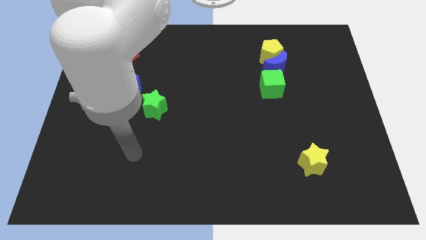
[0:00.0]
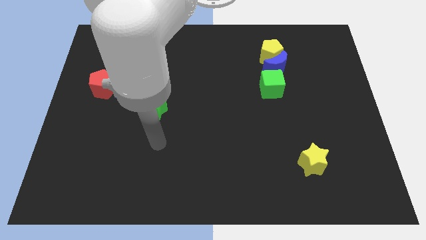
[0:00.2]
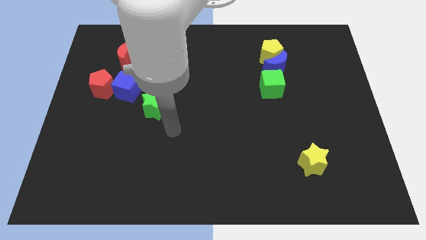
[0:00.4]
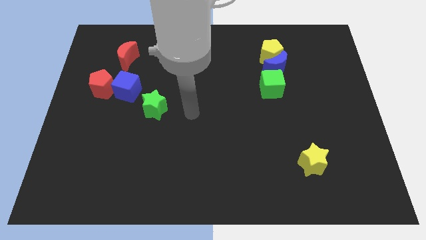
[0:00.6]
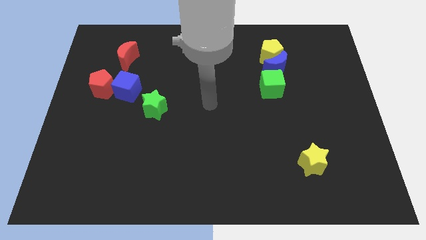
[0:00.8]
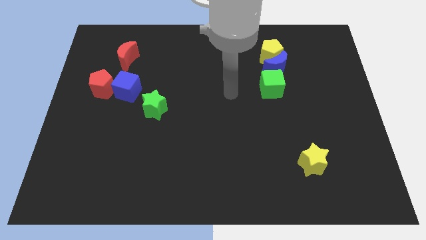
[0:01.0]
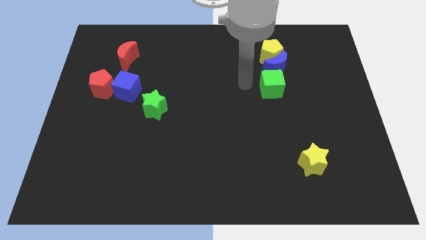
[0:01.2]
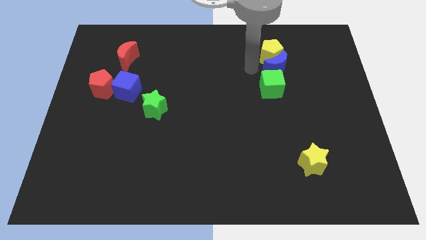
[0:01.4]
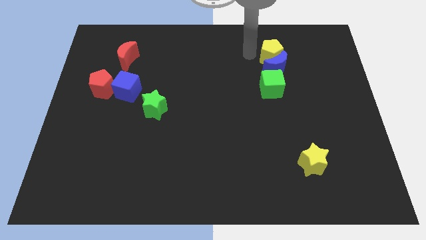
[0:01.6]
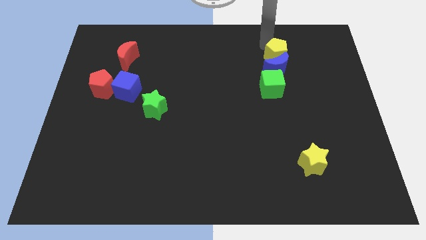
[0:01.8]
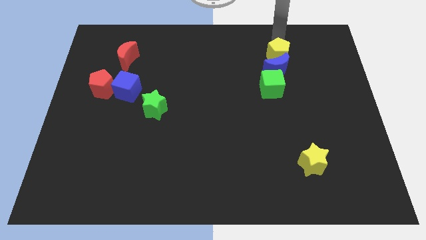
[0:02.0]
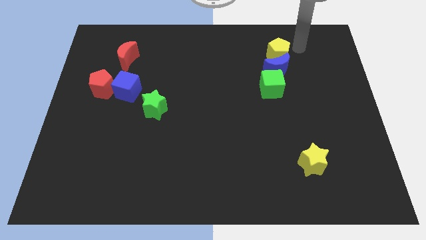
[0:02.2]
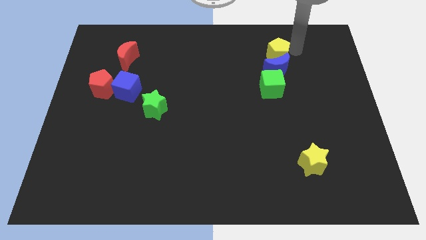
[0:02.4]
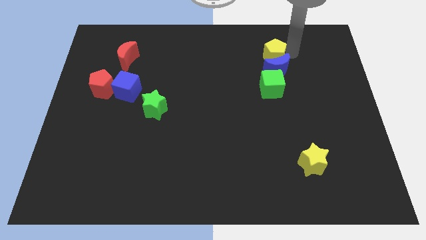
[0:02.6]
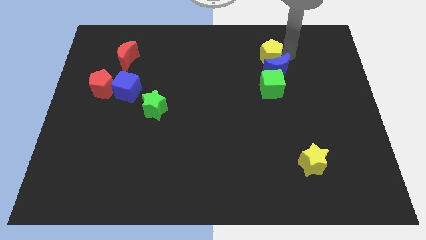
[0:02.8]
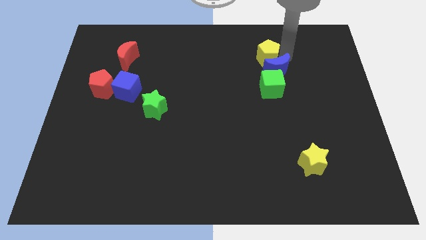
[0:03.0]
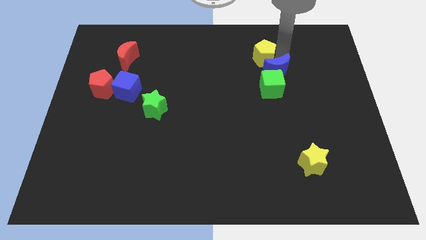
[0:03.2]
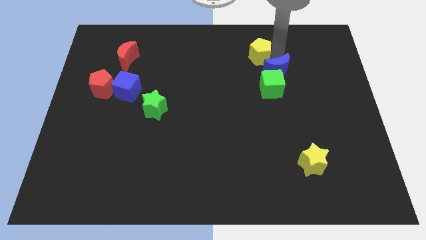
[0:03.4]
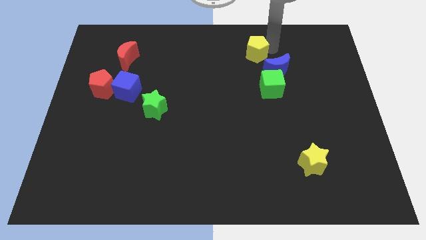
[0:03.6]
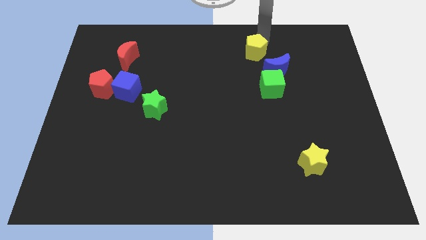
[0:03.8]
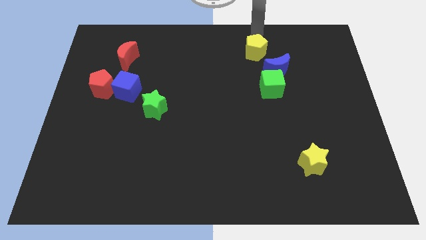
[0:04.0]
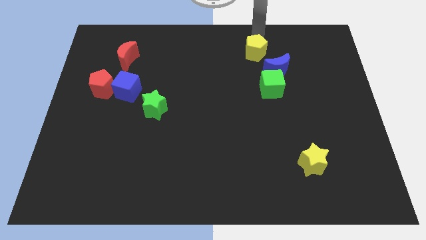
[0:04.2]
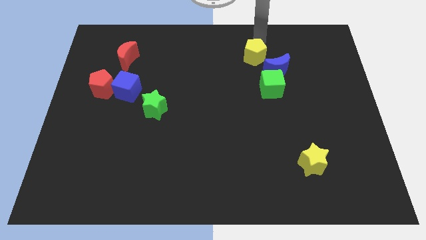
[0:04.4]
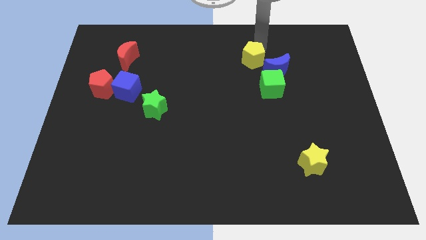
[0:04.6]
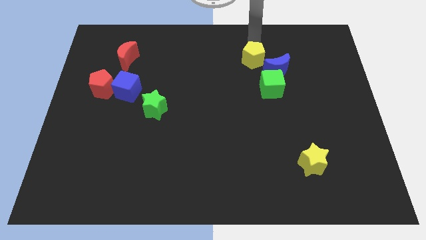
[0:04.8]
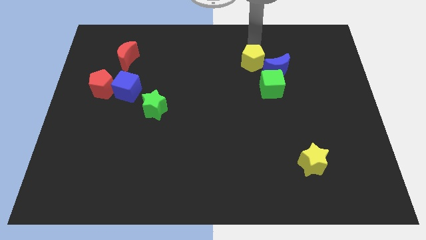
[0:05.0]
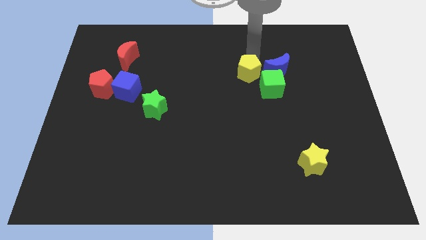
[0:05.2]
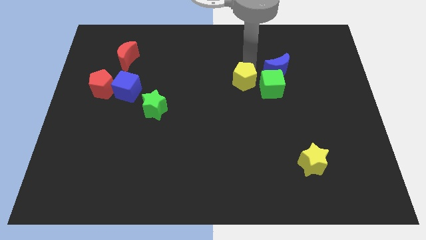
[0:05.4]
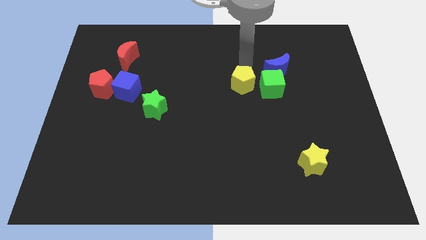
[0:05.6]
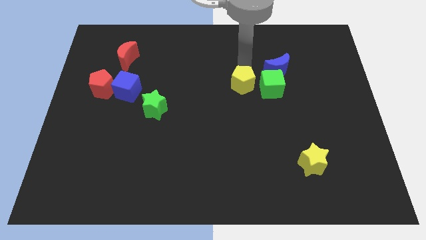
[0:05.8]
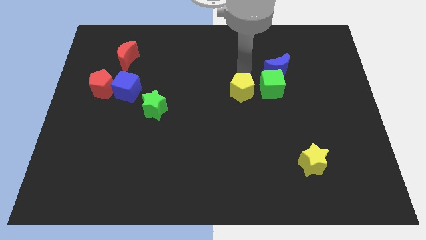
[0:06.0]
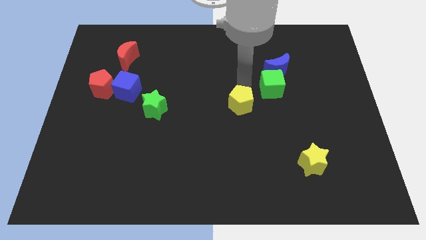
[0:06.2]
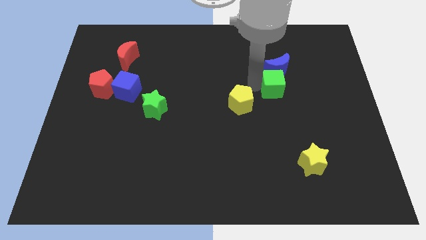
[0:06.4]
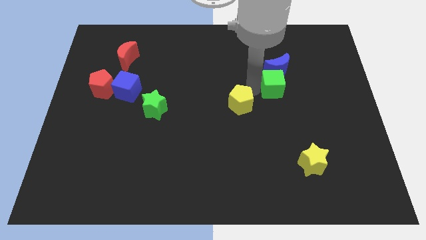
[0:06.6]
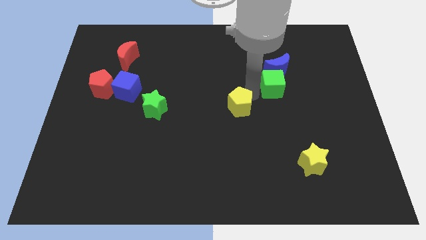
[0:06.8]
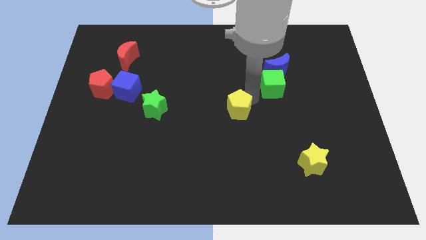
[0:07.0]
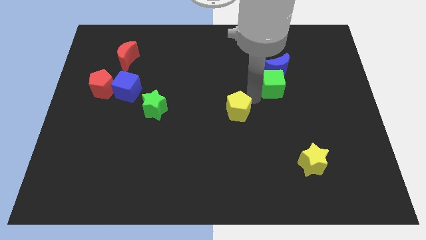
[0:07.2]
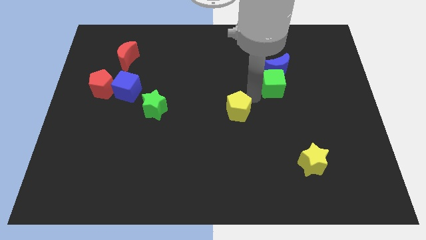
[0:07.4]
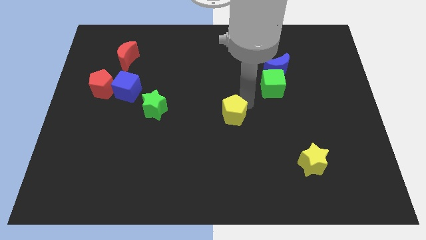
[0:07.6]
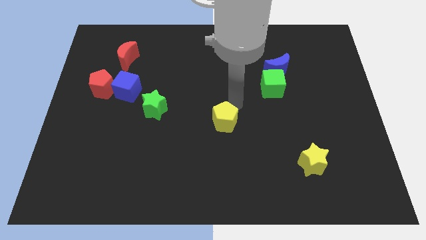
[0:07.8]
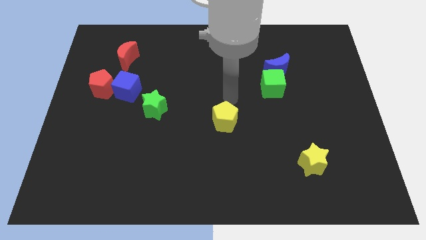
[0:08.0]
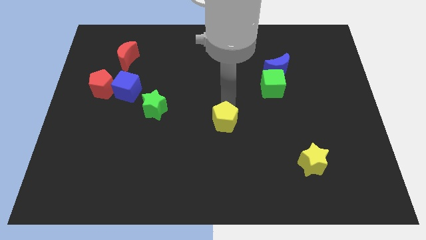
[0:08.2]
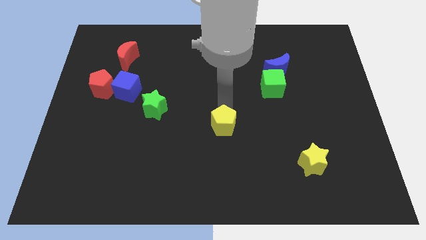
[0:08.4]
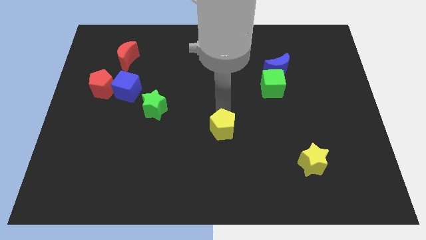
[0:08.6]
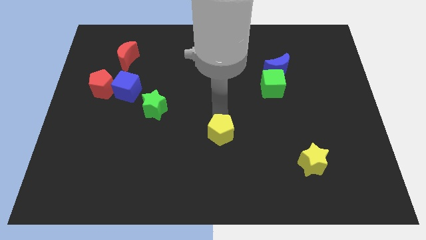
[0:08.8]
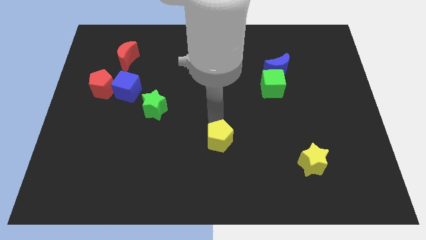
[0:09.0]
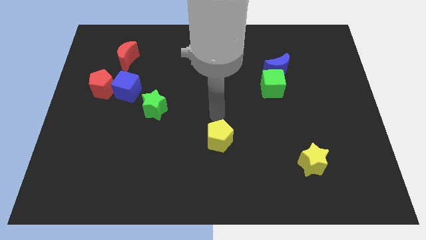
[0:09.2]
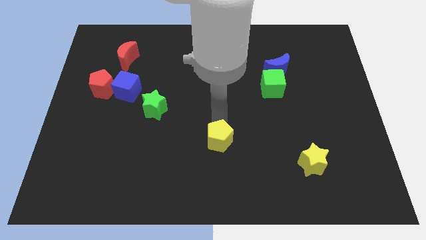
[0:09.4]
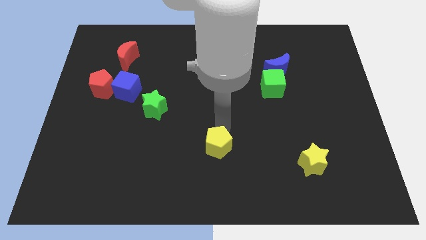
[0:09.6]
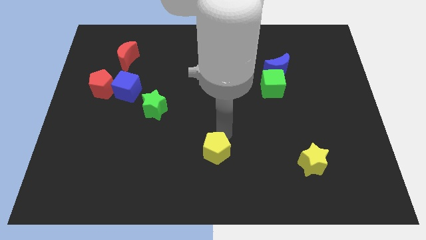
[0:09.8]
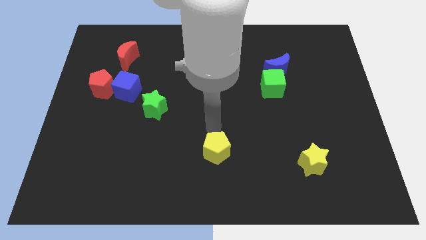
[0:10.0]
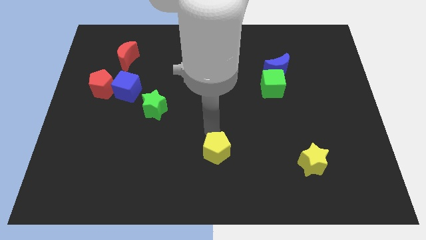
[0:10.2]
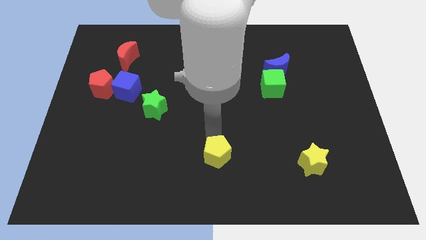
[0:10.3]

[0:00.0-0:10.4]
move the yellow pentagon to the bottom side
